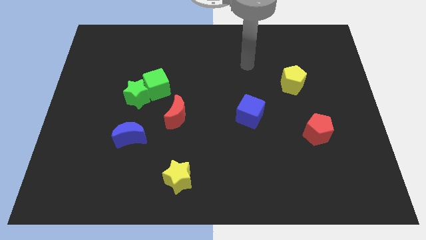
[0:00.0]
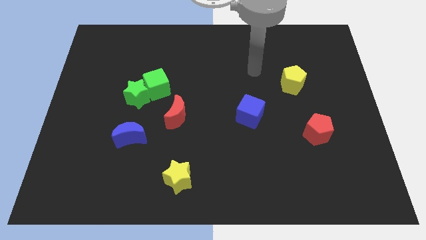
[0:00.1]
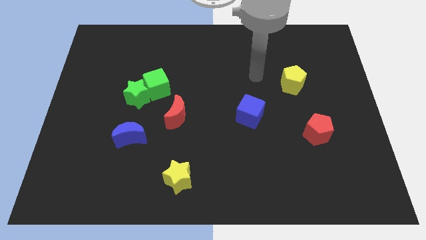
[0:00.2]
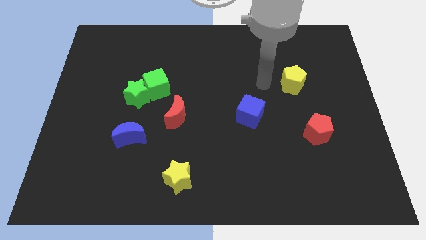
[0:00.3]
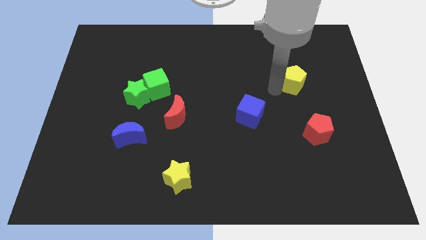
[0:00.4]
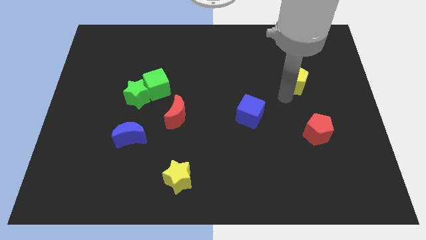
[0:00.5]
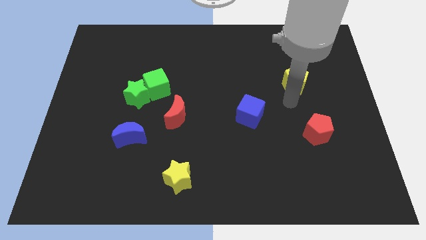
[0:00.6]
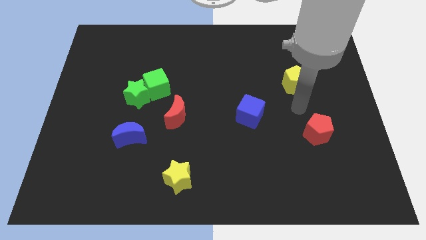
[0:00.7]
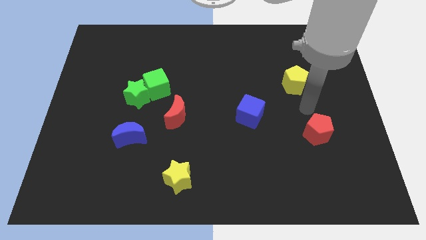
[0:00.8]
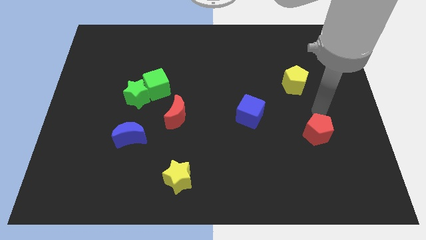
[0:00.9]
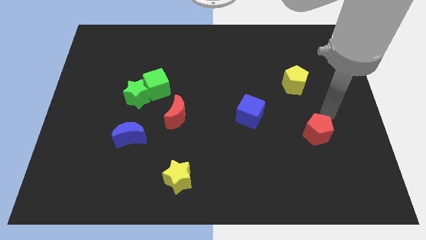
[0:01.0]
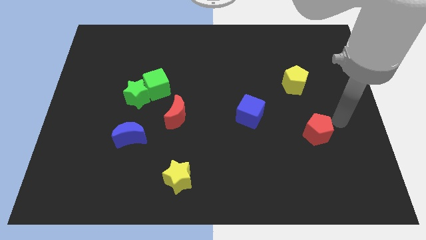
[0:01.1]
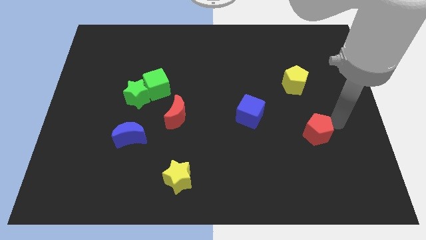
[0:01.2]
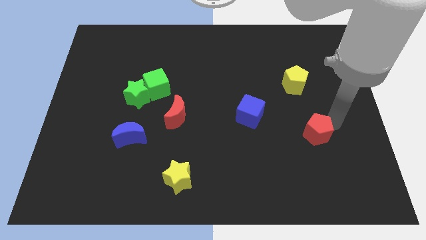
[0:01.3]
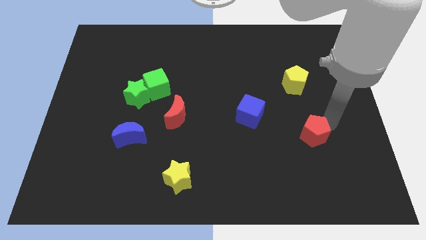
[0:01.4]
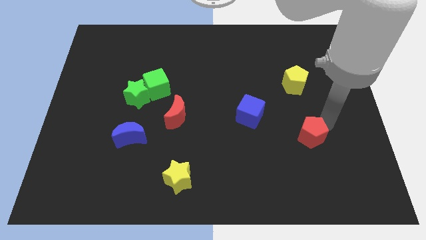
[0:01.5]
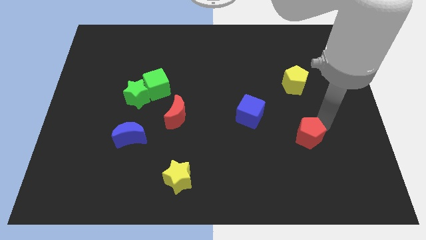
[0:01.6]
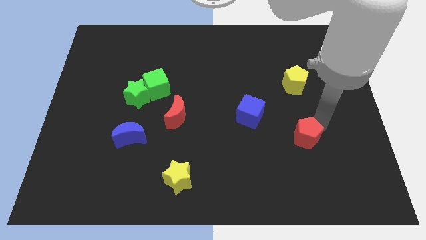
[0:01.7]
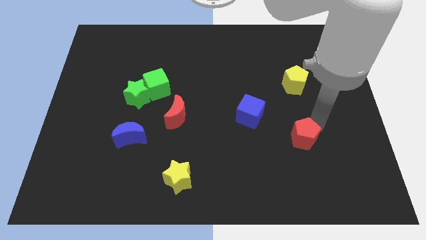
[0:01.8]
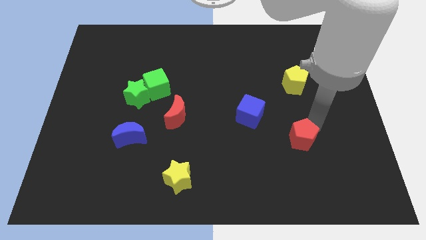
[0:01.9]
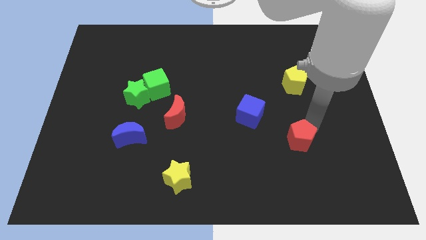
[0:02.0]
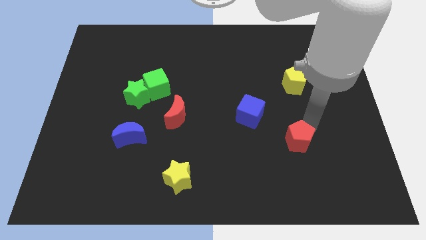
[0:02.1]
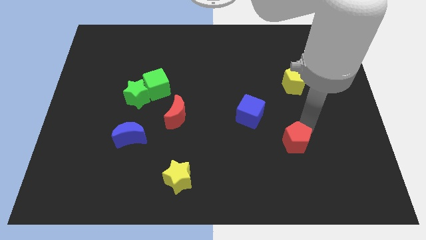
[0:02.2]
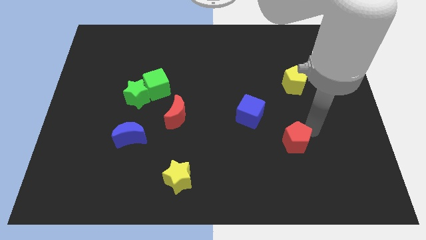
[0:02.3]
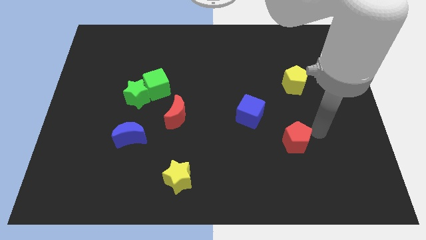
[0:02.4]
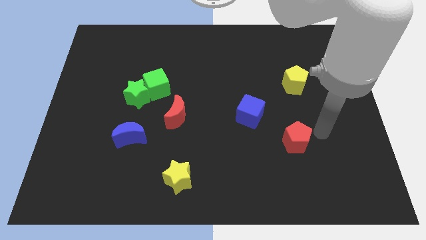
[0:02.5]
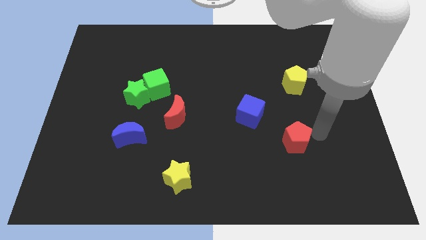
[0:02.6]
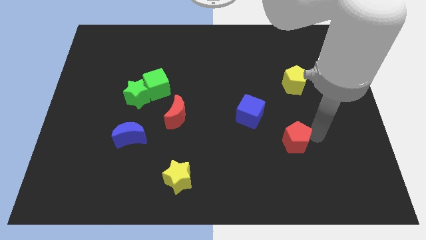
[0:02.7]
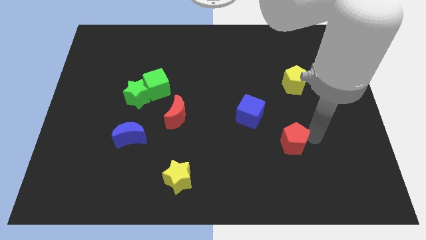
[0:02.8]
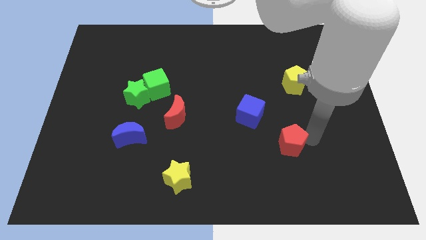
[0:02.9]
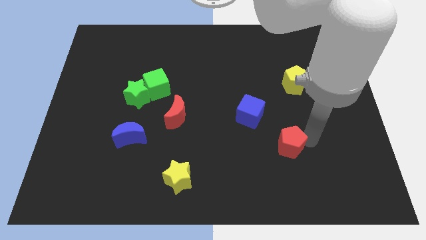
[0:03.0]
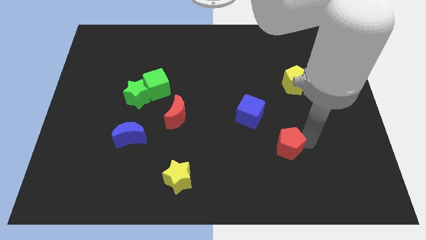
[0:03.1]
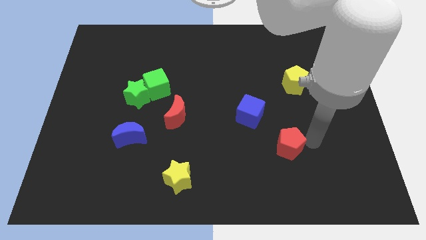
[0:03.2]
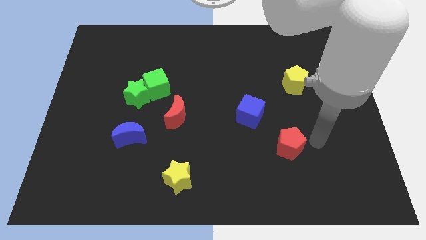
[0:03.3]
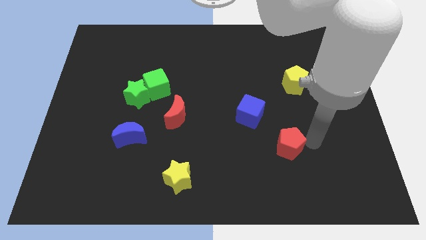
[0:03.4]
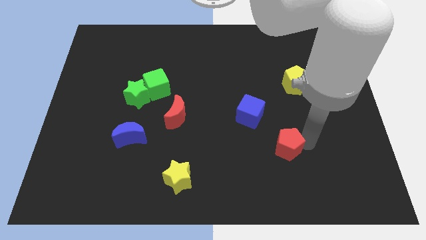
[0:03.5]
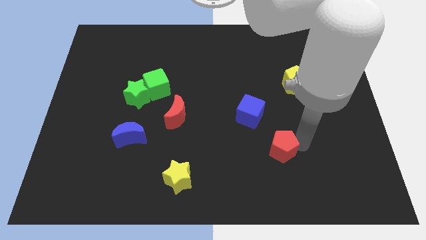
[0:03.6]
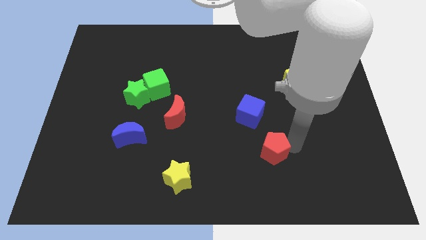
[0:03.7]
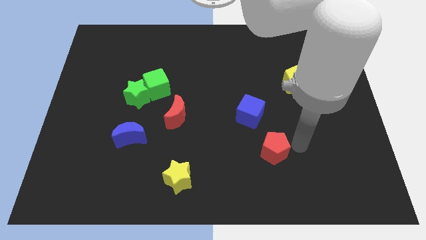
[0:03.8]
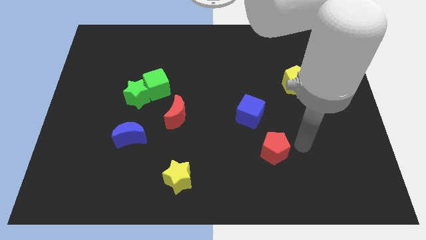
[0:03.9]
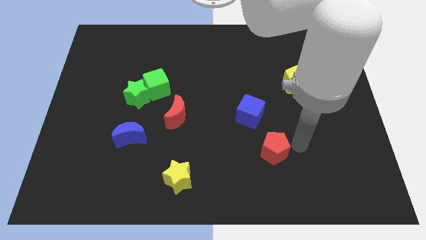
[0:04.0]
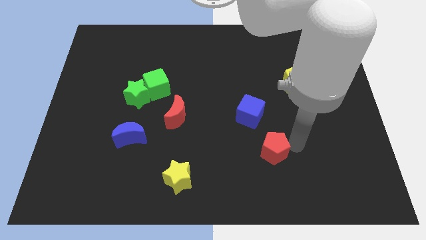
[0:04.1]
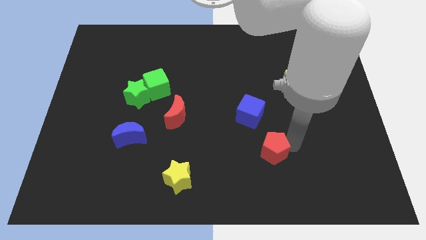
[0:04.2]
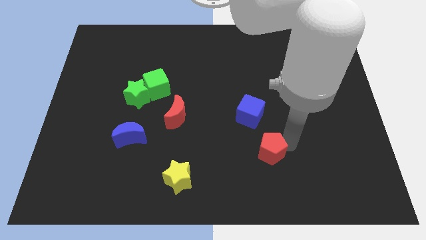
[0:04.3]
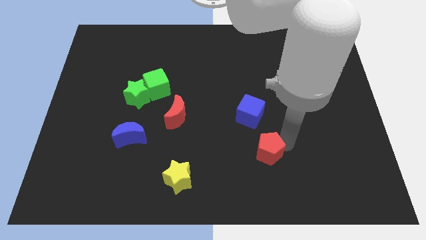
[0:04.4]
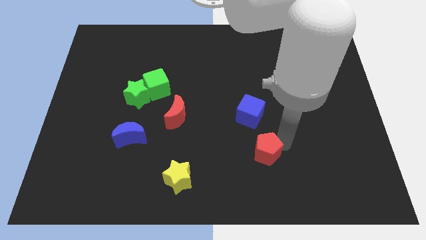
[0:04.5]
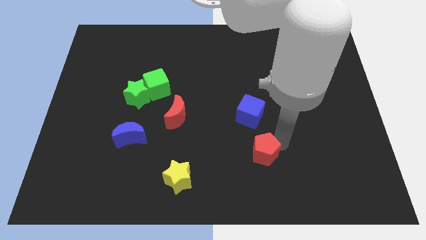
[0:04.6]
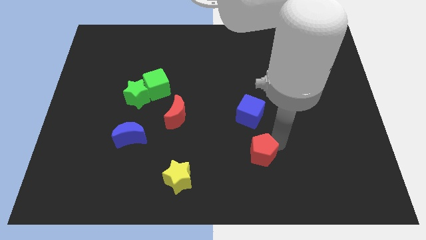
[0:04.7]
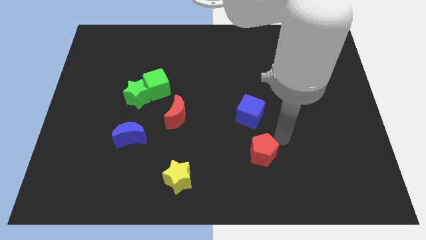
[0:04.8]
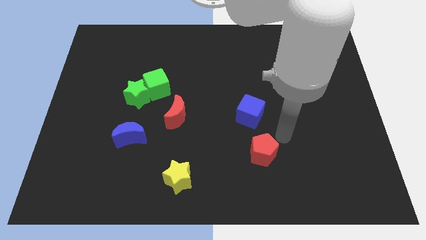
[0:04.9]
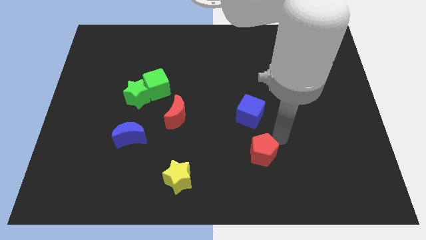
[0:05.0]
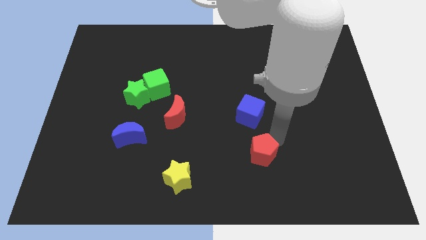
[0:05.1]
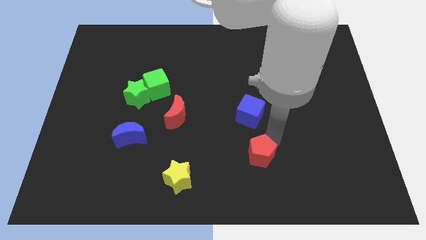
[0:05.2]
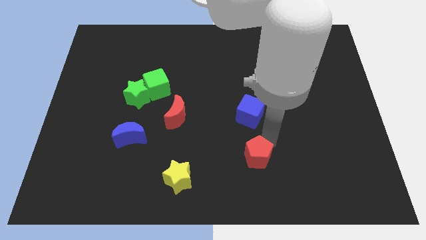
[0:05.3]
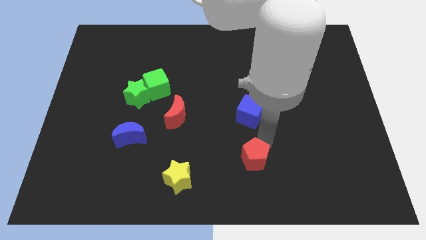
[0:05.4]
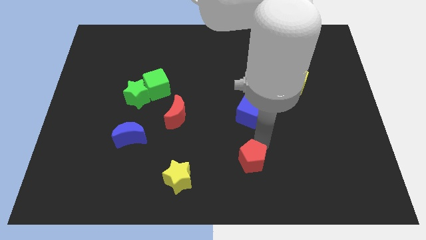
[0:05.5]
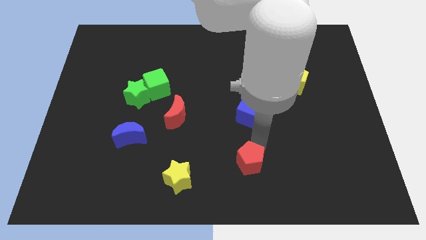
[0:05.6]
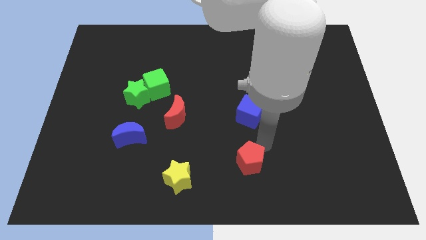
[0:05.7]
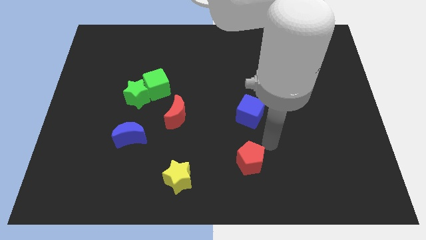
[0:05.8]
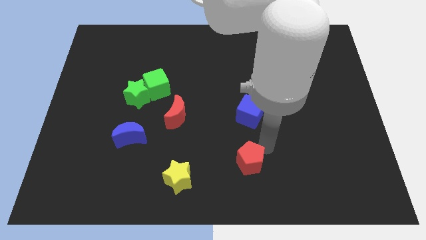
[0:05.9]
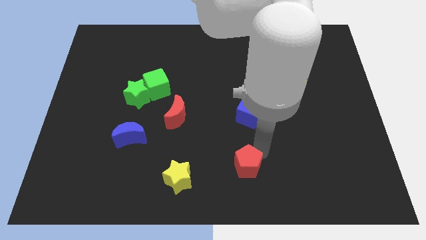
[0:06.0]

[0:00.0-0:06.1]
push the red pentagon right of the yellow star

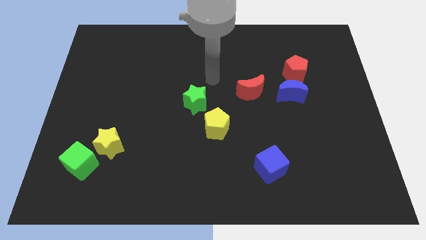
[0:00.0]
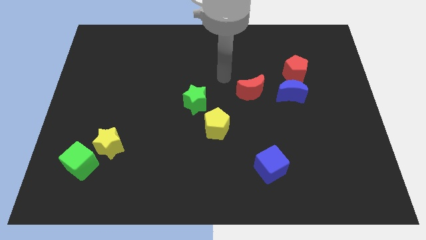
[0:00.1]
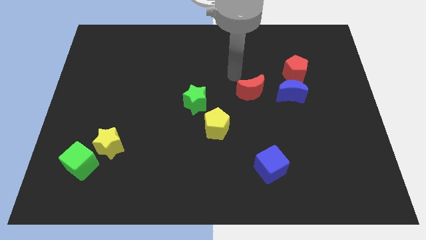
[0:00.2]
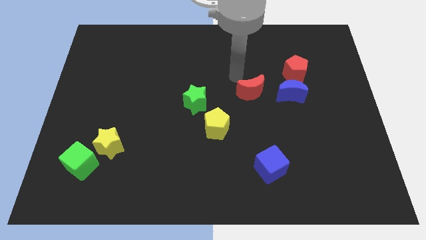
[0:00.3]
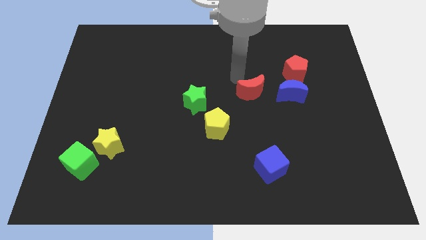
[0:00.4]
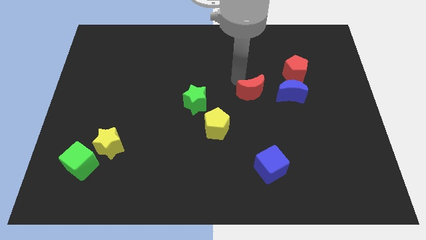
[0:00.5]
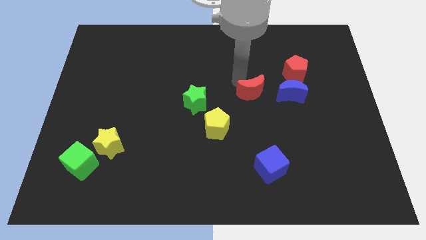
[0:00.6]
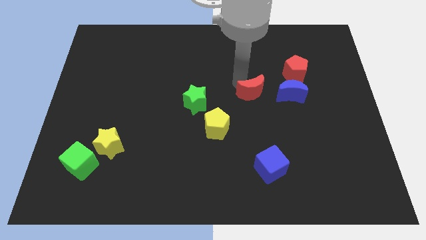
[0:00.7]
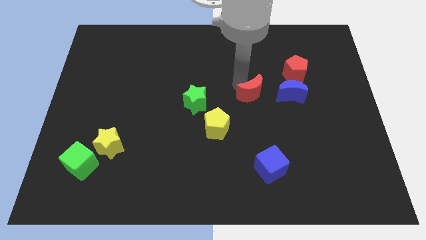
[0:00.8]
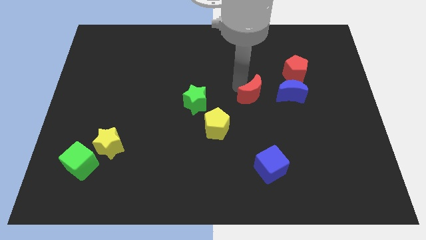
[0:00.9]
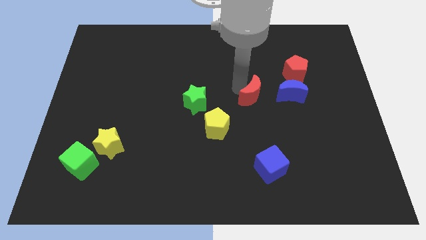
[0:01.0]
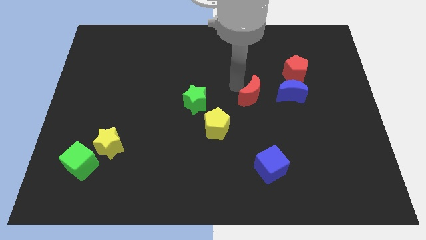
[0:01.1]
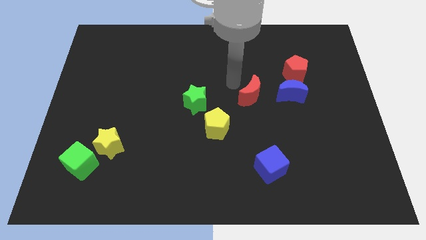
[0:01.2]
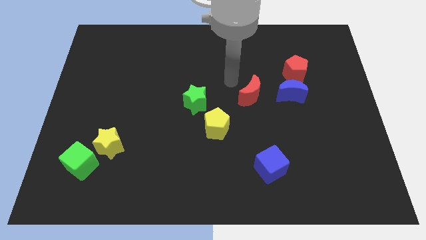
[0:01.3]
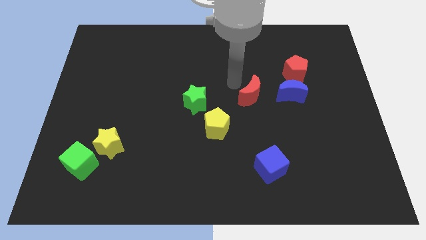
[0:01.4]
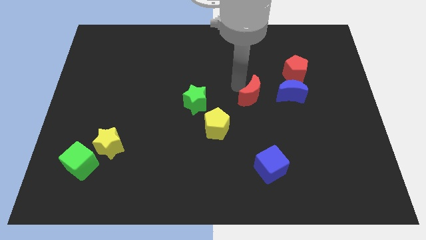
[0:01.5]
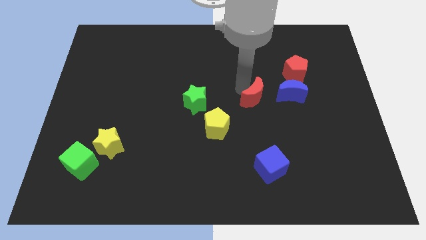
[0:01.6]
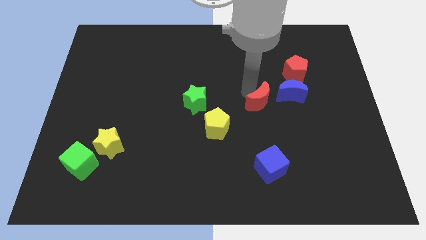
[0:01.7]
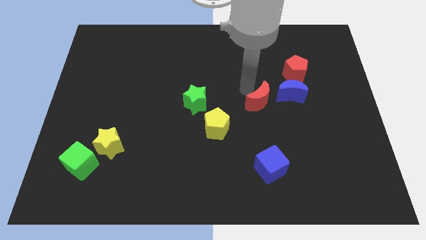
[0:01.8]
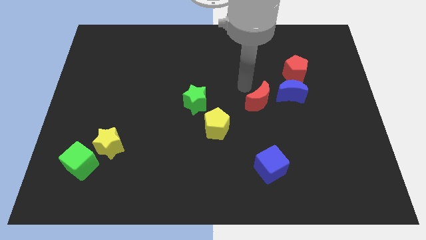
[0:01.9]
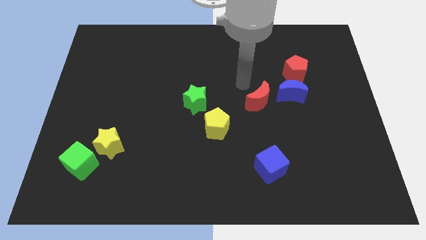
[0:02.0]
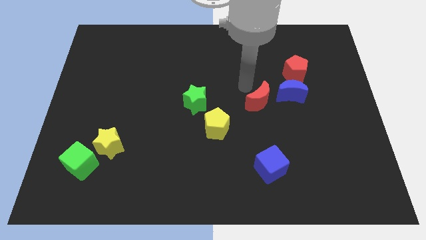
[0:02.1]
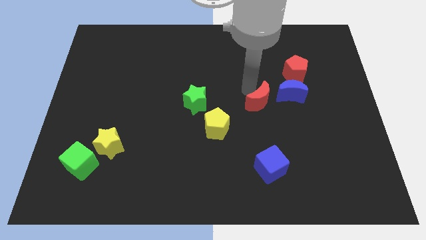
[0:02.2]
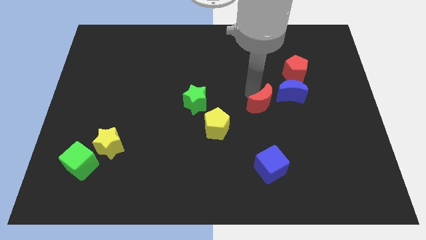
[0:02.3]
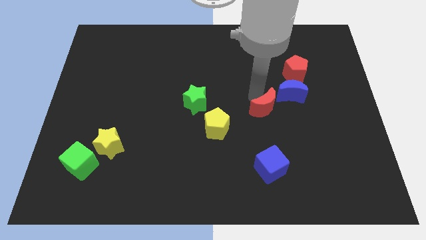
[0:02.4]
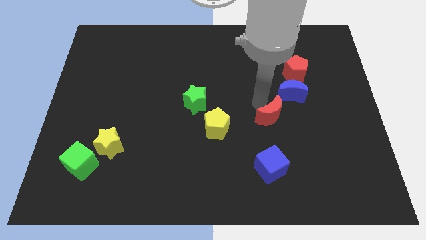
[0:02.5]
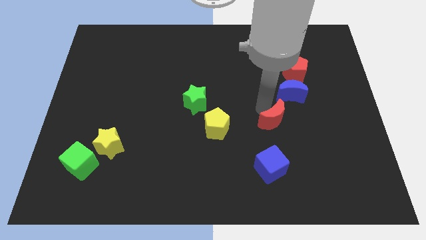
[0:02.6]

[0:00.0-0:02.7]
slide the red moon to the bottom side of the blue moon
